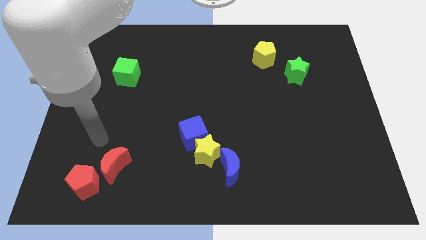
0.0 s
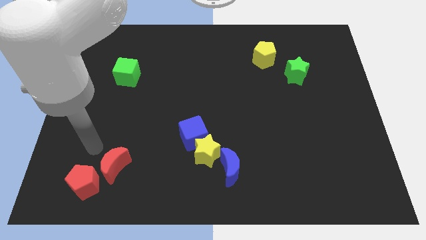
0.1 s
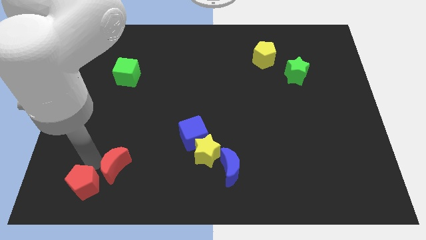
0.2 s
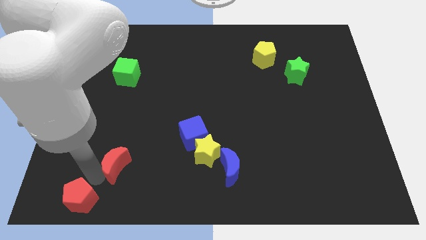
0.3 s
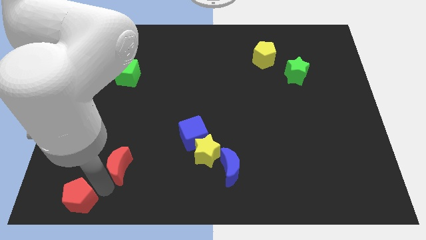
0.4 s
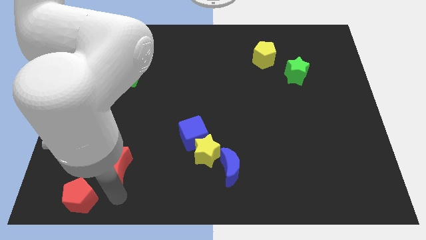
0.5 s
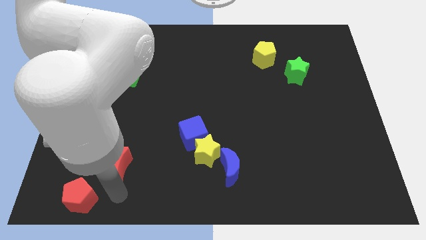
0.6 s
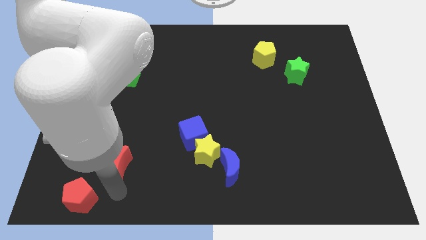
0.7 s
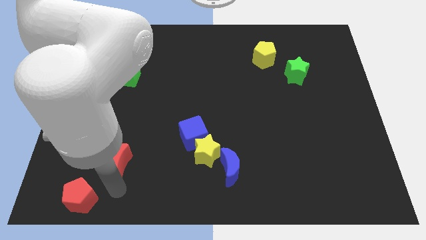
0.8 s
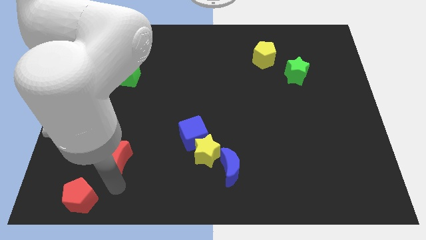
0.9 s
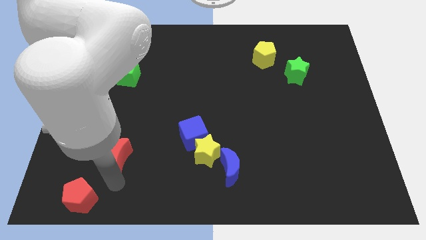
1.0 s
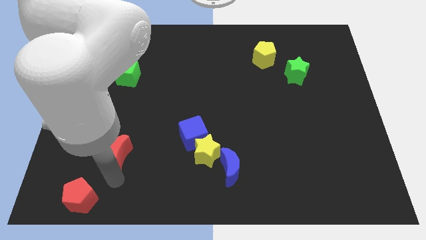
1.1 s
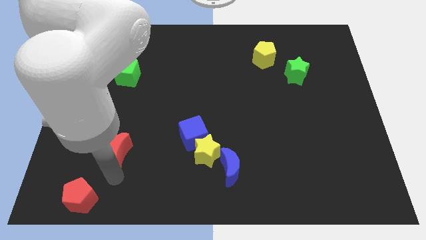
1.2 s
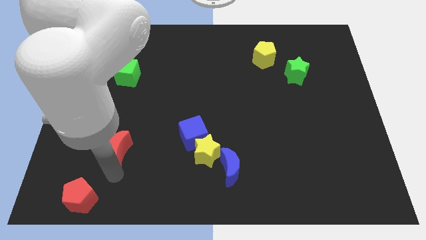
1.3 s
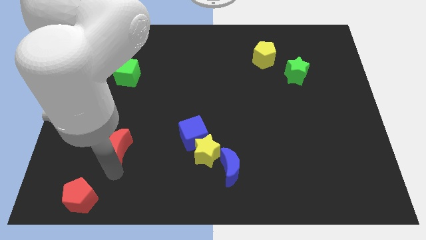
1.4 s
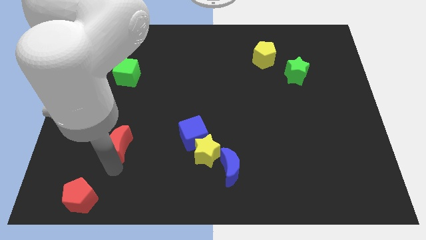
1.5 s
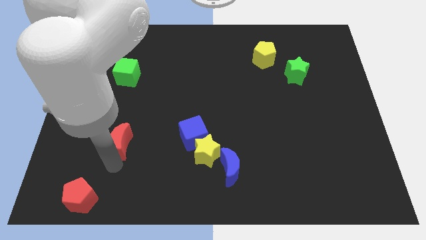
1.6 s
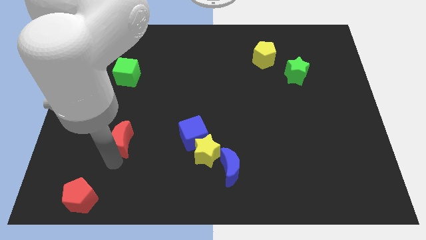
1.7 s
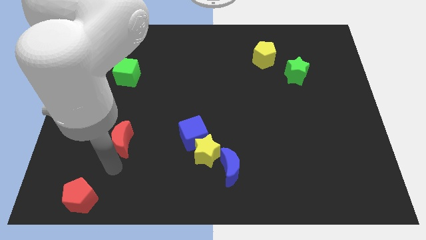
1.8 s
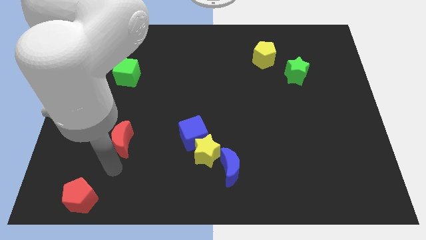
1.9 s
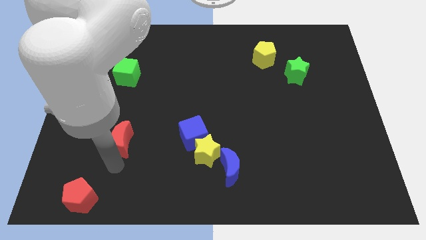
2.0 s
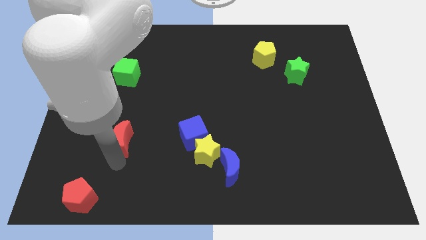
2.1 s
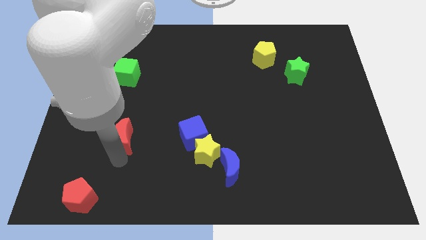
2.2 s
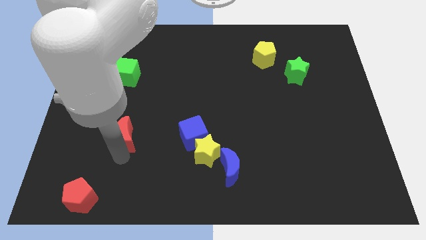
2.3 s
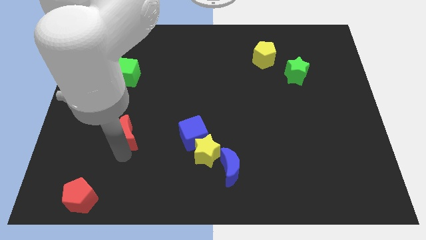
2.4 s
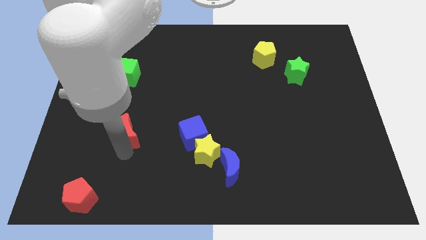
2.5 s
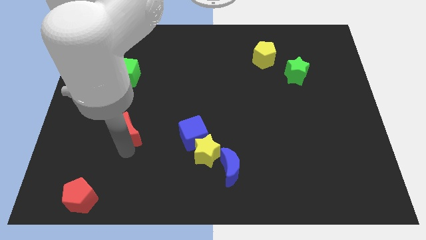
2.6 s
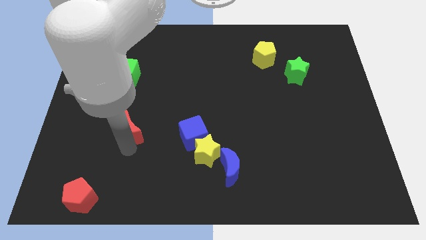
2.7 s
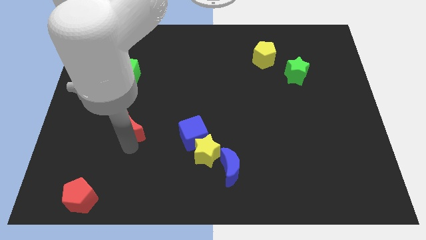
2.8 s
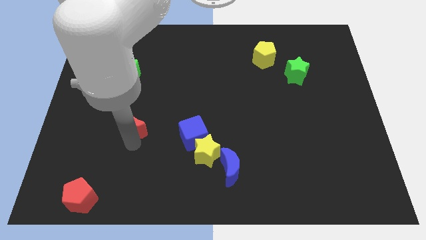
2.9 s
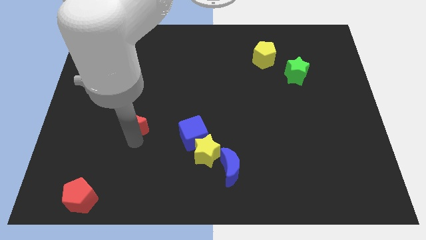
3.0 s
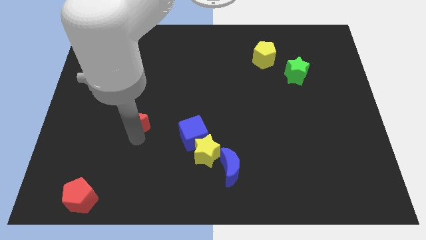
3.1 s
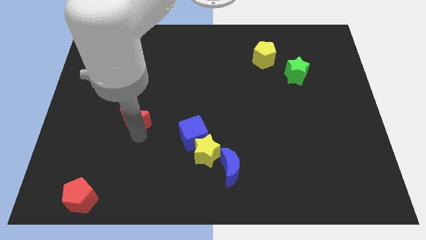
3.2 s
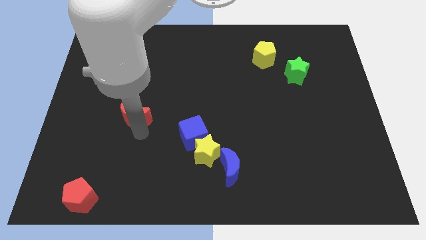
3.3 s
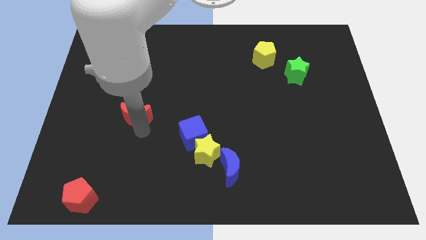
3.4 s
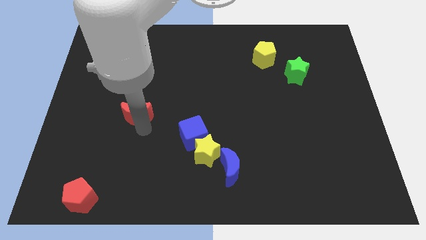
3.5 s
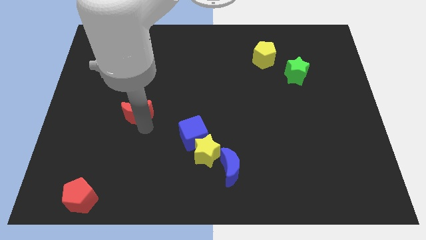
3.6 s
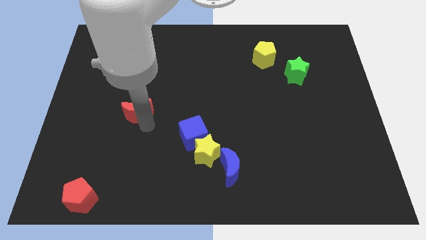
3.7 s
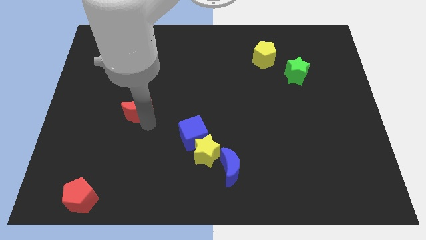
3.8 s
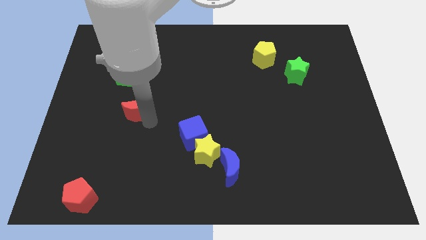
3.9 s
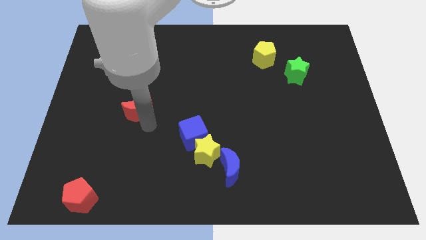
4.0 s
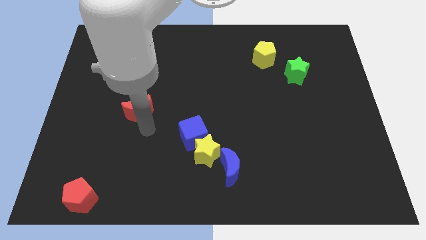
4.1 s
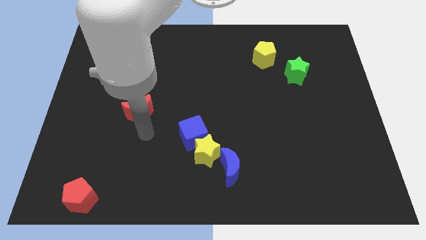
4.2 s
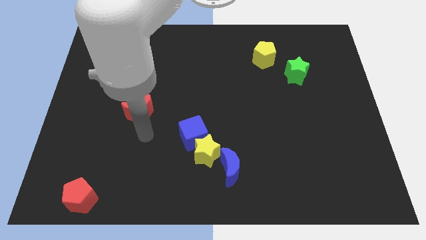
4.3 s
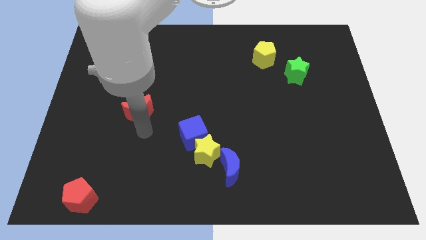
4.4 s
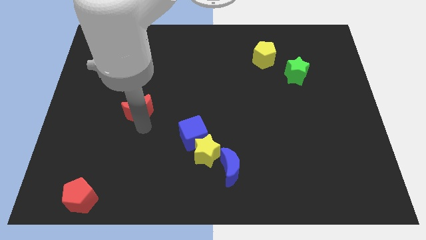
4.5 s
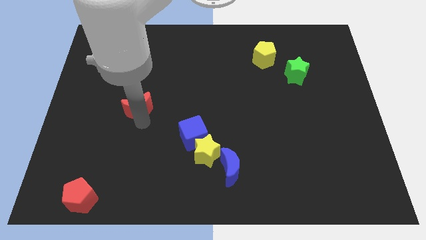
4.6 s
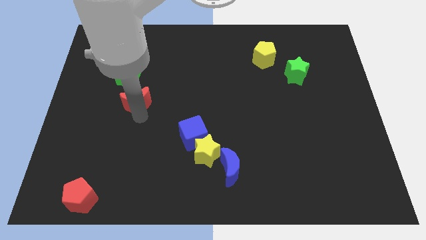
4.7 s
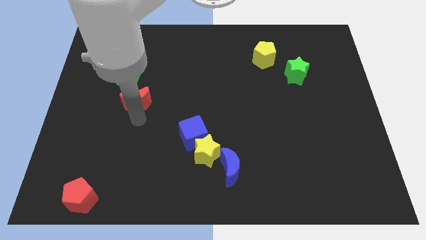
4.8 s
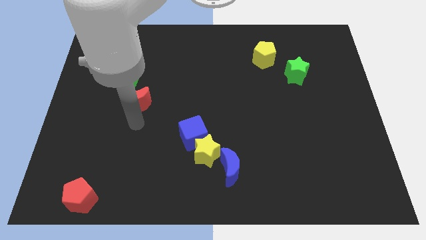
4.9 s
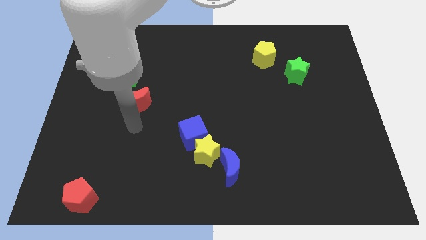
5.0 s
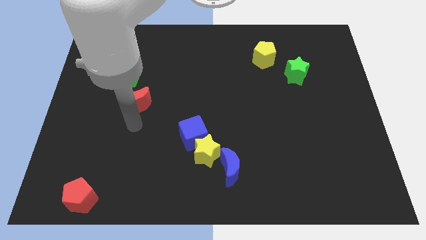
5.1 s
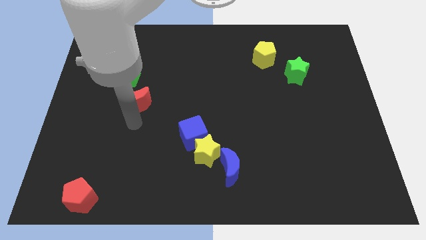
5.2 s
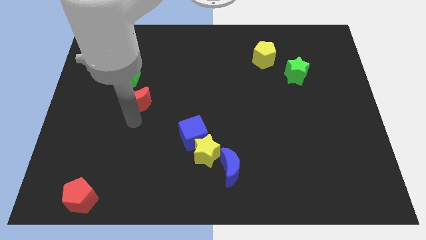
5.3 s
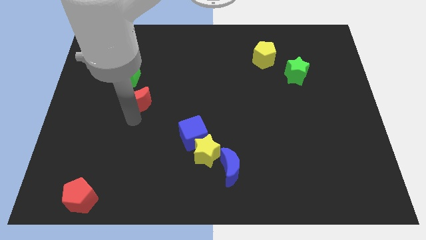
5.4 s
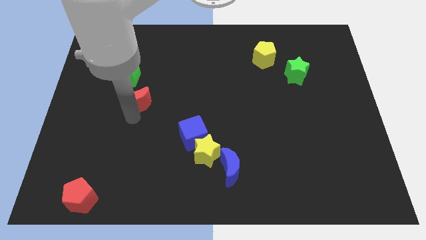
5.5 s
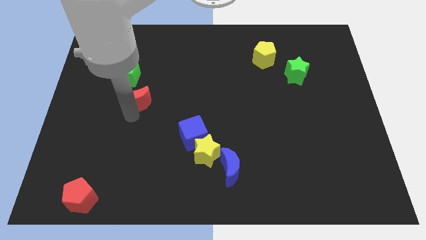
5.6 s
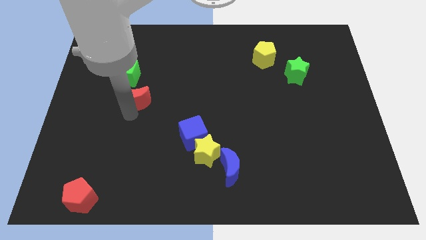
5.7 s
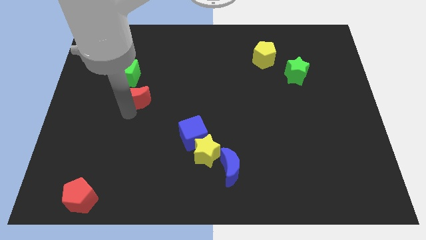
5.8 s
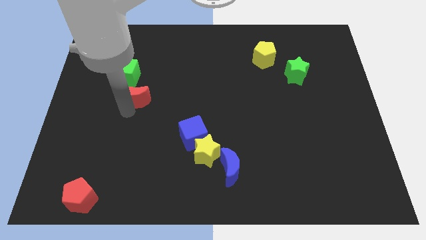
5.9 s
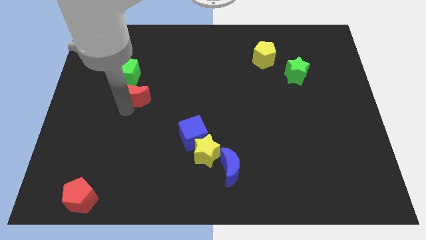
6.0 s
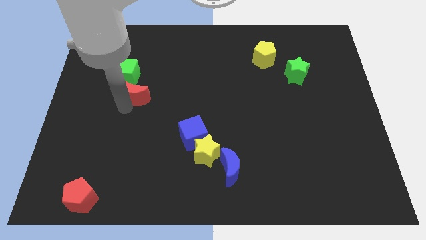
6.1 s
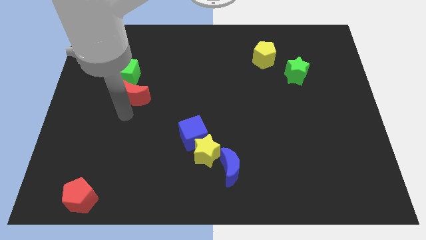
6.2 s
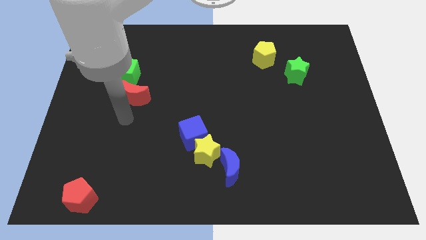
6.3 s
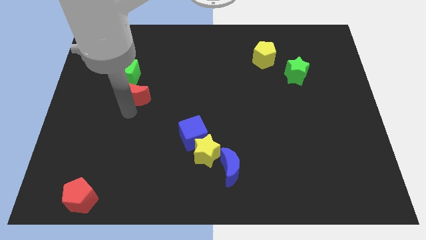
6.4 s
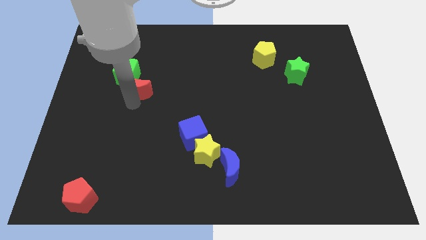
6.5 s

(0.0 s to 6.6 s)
push the red moon upwards

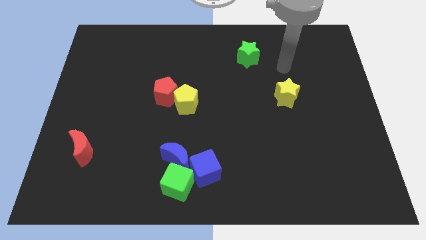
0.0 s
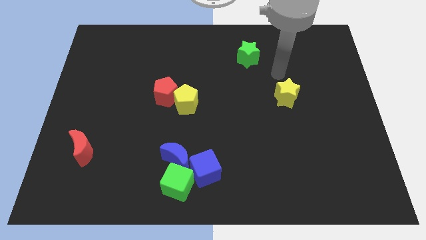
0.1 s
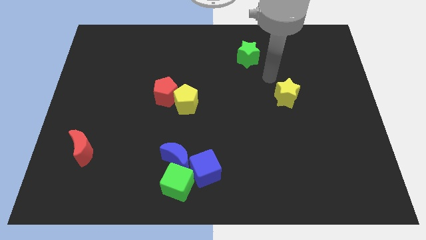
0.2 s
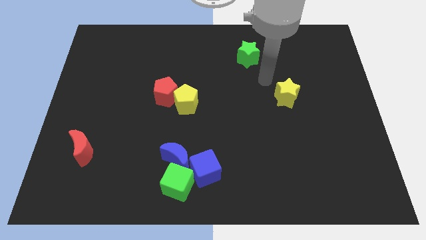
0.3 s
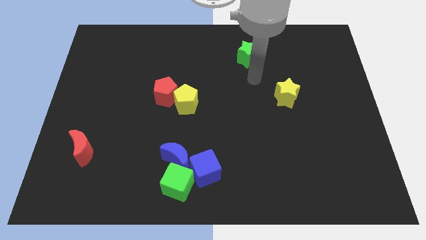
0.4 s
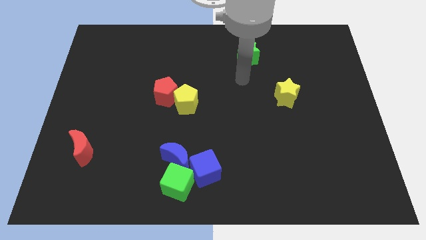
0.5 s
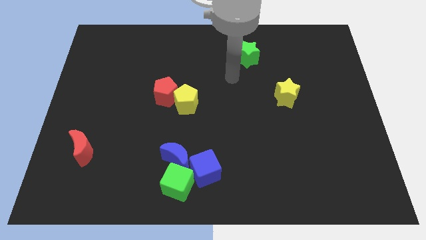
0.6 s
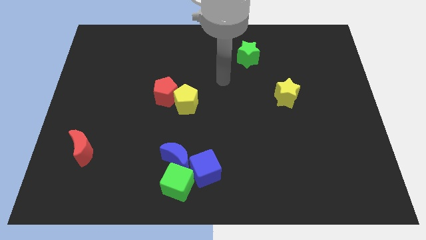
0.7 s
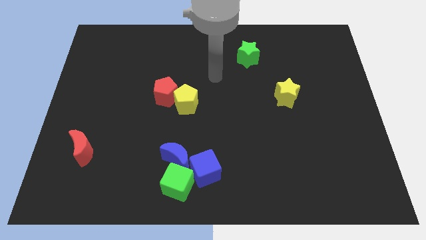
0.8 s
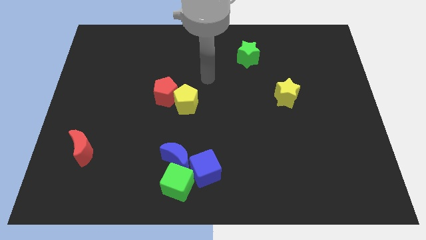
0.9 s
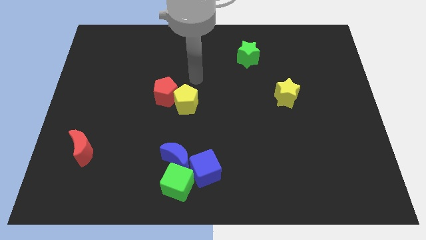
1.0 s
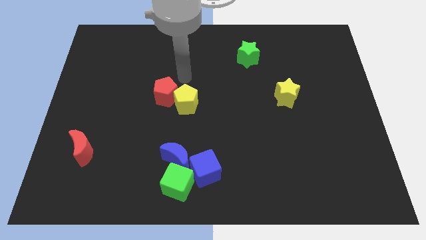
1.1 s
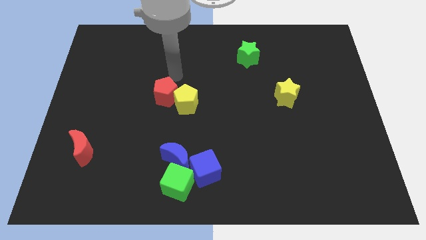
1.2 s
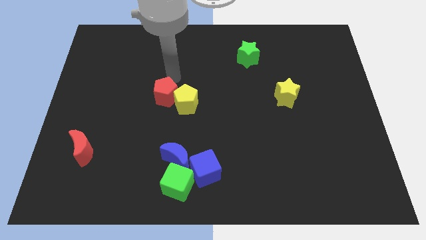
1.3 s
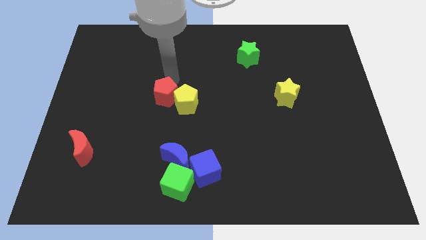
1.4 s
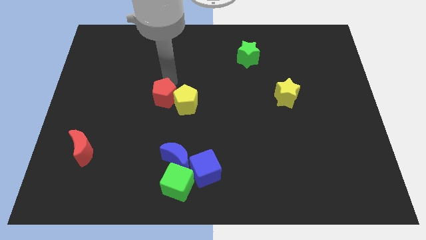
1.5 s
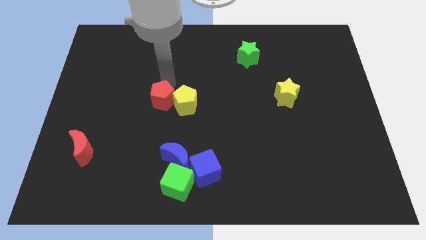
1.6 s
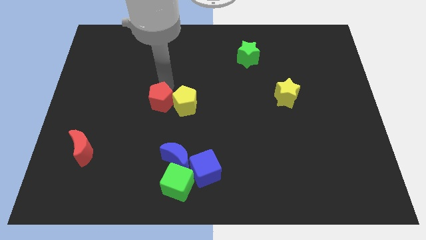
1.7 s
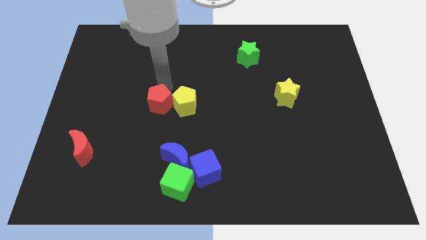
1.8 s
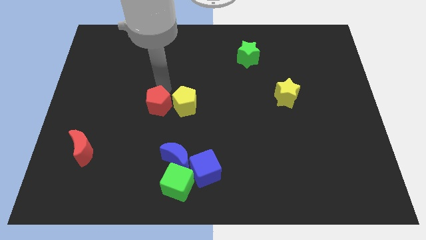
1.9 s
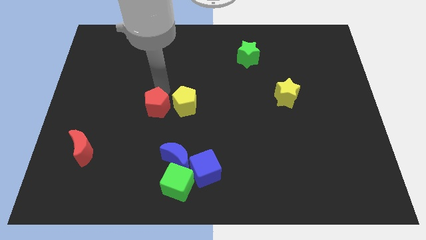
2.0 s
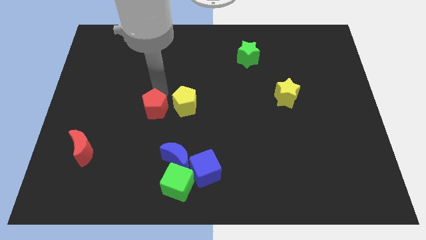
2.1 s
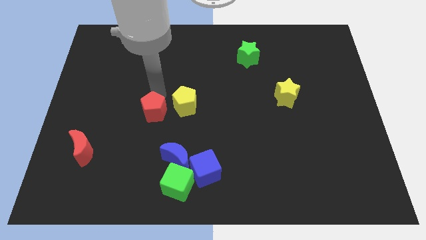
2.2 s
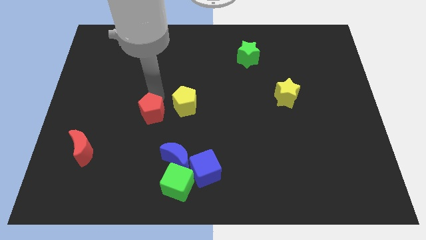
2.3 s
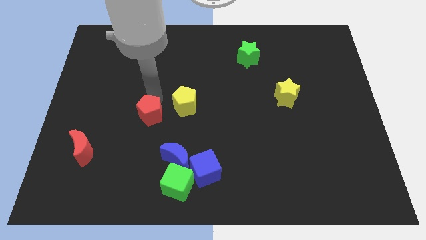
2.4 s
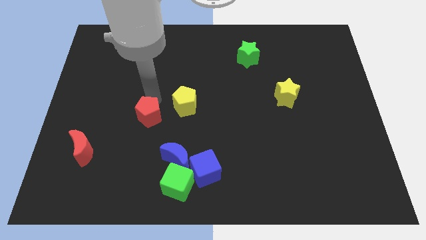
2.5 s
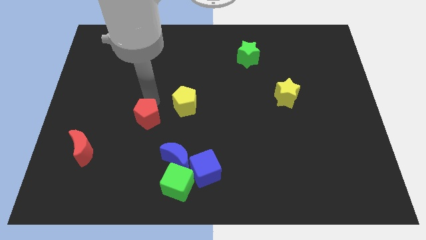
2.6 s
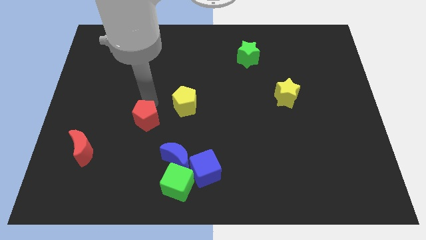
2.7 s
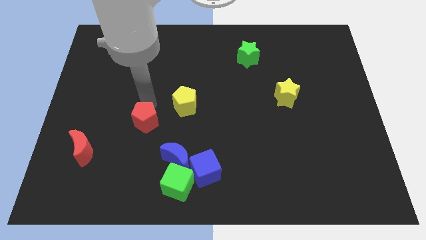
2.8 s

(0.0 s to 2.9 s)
slide the red pentagon down somewhat
